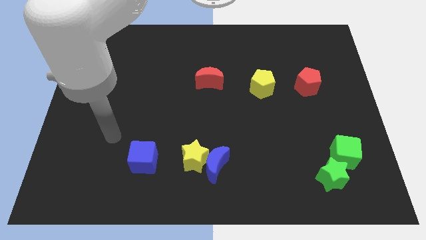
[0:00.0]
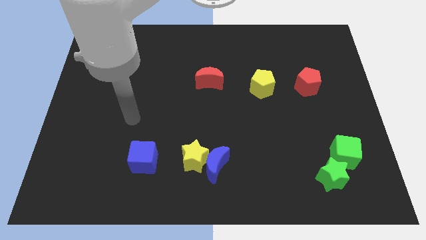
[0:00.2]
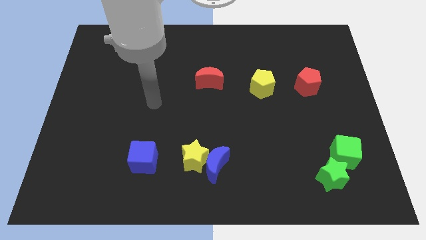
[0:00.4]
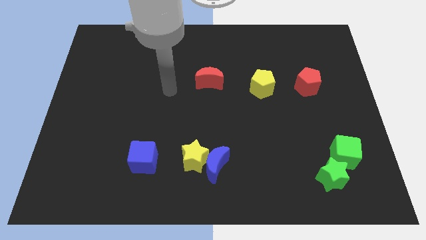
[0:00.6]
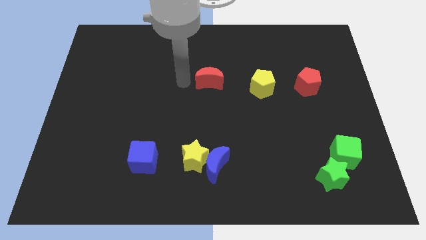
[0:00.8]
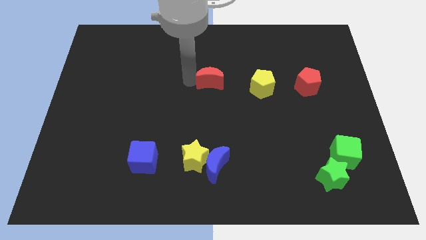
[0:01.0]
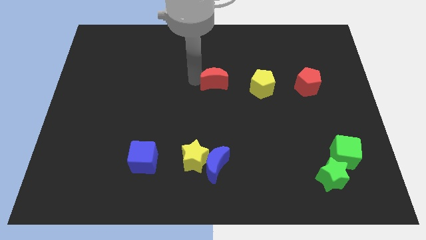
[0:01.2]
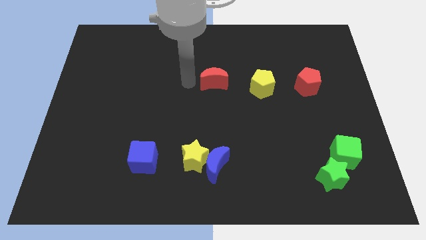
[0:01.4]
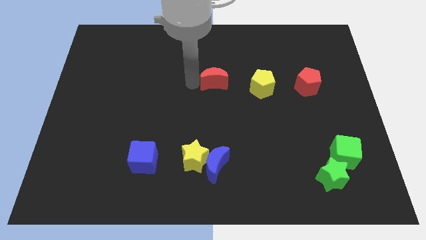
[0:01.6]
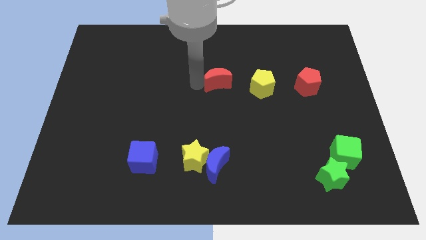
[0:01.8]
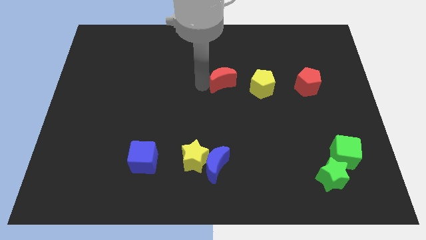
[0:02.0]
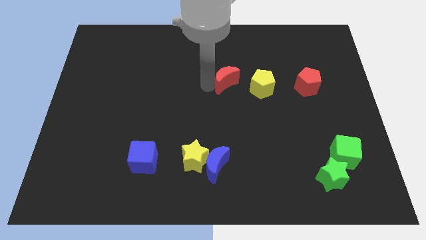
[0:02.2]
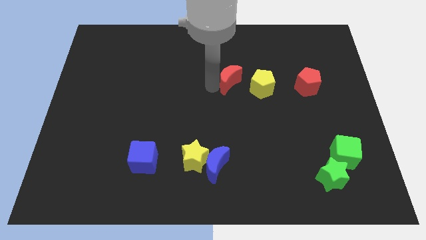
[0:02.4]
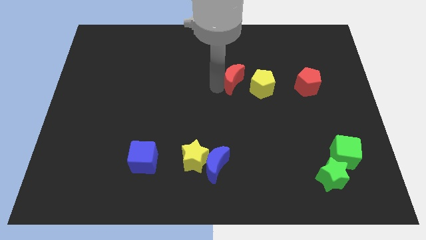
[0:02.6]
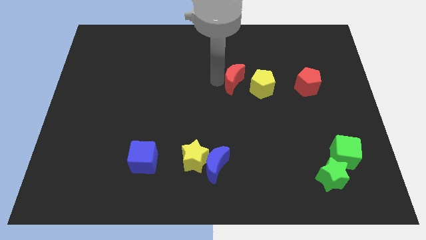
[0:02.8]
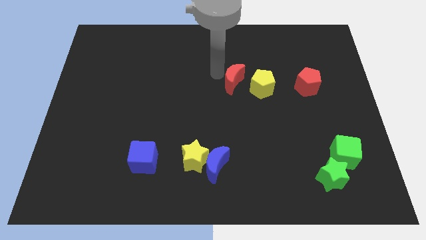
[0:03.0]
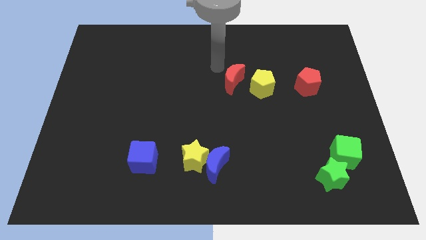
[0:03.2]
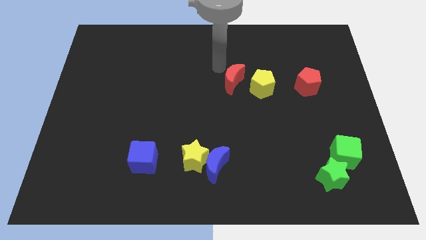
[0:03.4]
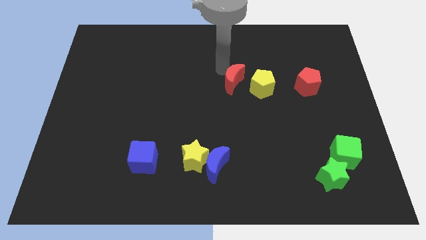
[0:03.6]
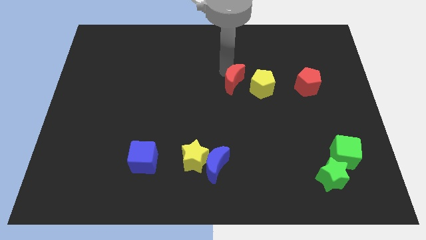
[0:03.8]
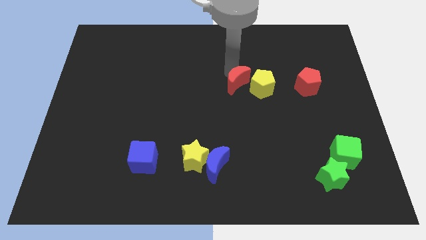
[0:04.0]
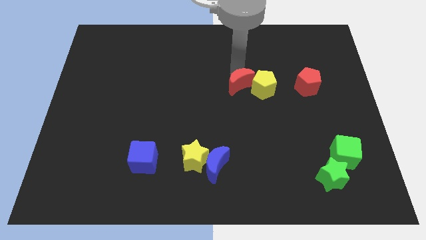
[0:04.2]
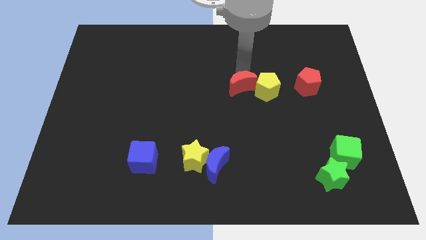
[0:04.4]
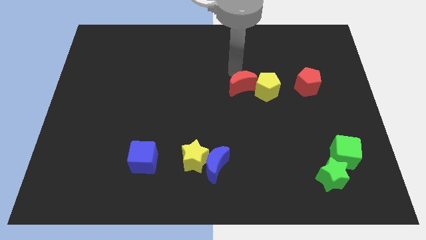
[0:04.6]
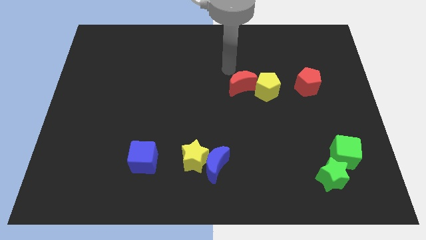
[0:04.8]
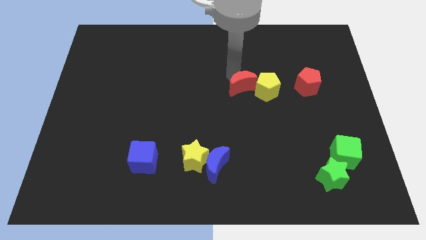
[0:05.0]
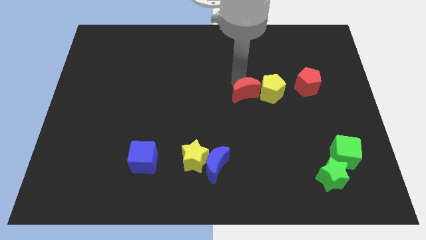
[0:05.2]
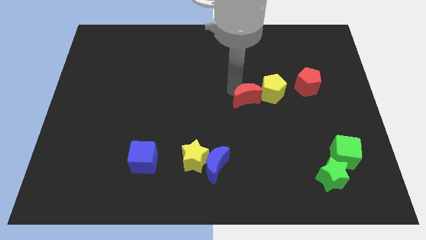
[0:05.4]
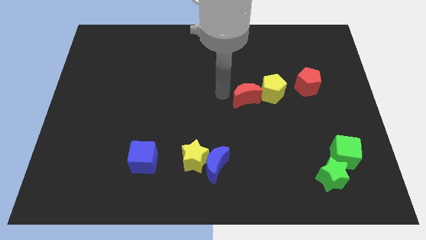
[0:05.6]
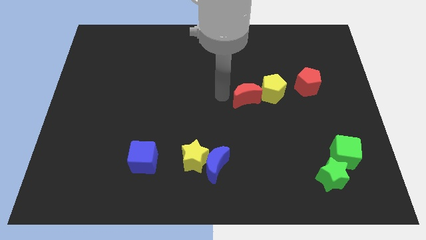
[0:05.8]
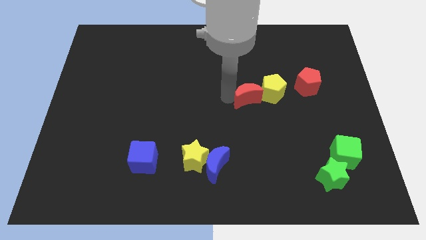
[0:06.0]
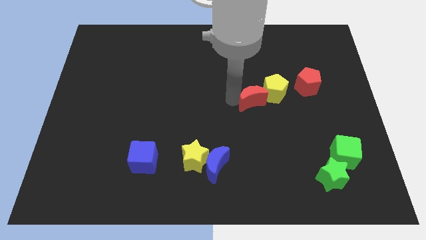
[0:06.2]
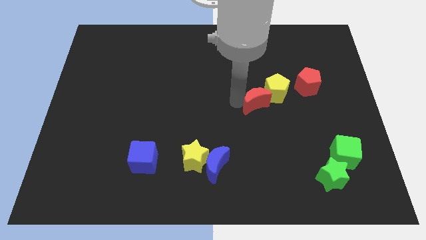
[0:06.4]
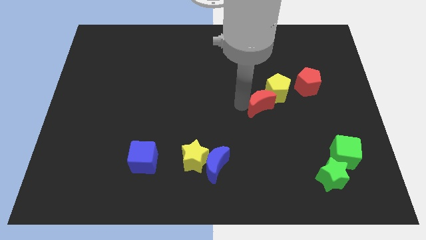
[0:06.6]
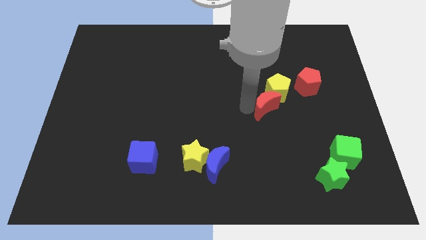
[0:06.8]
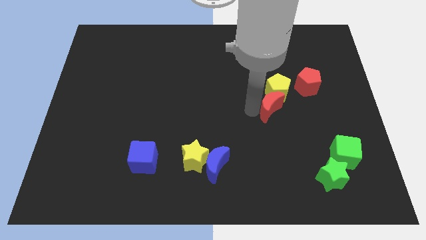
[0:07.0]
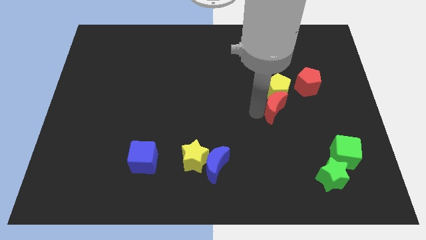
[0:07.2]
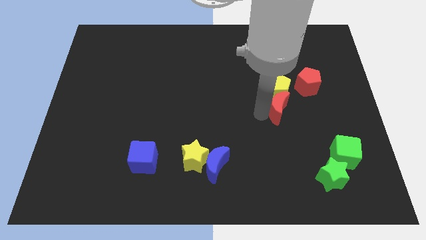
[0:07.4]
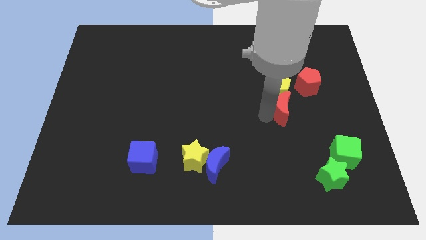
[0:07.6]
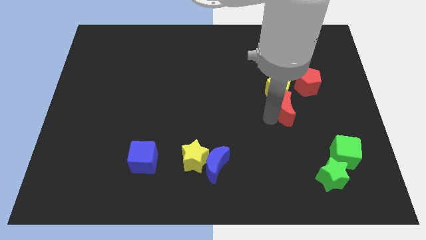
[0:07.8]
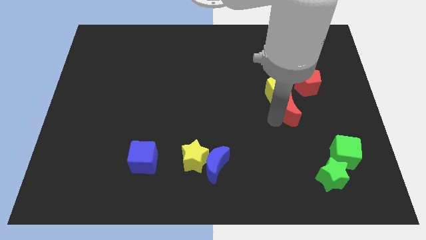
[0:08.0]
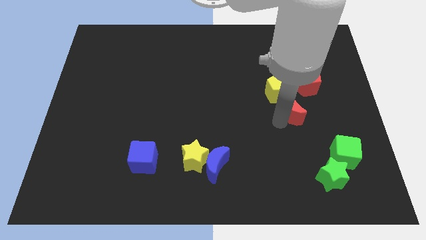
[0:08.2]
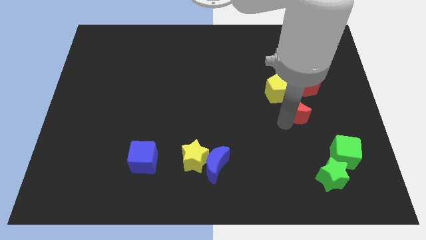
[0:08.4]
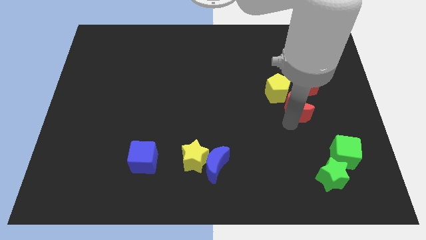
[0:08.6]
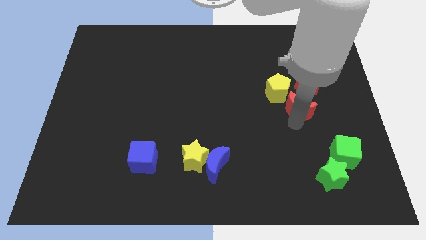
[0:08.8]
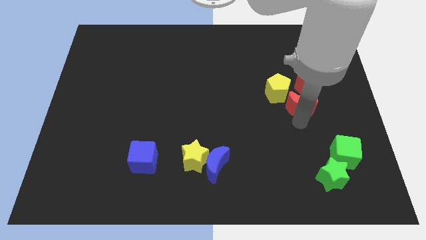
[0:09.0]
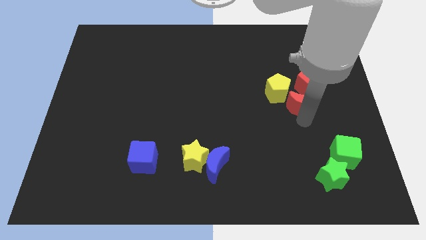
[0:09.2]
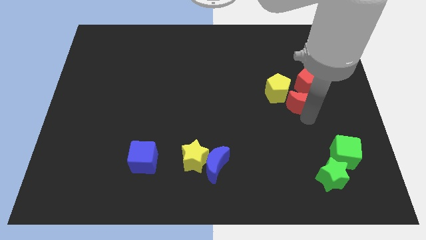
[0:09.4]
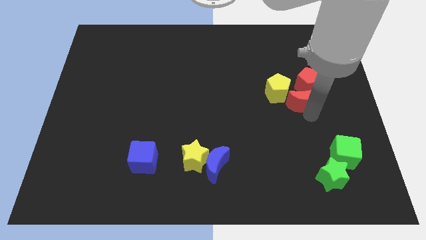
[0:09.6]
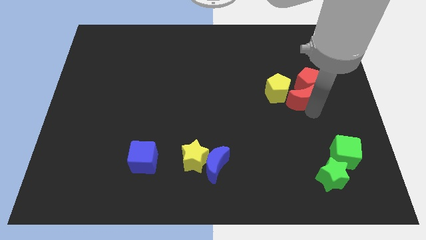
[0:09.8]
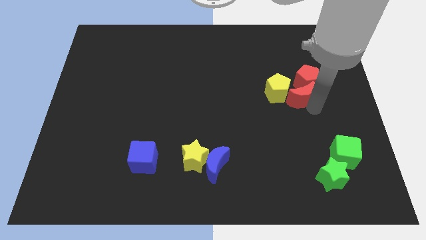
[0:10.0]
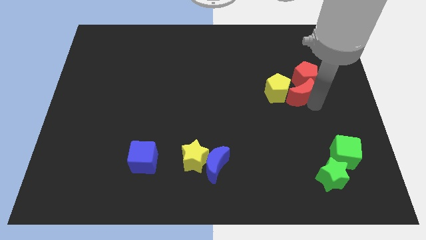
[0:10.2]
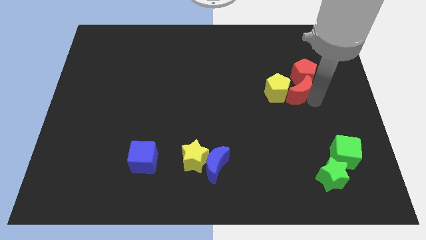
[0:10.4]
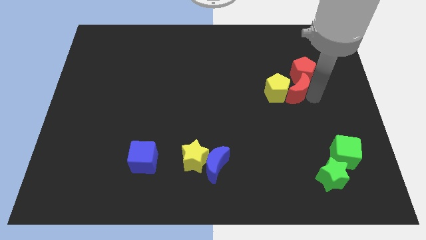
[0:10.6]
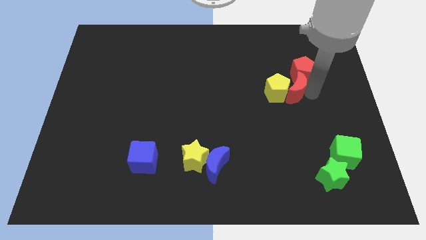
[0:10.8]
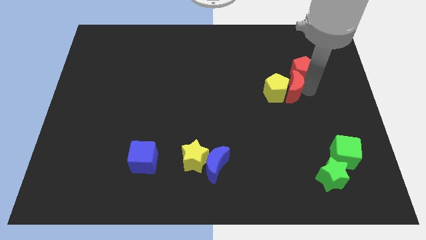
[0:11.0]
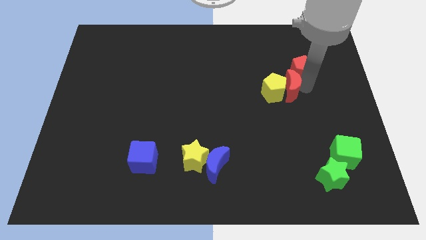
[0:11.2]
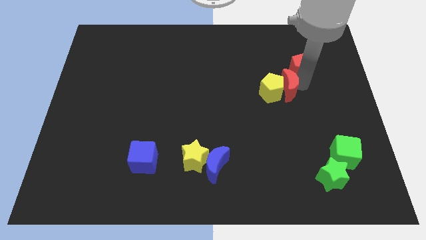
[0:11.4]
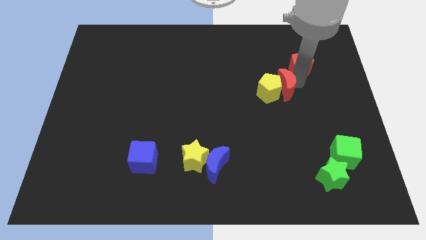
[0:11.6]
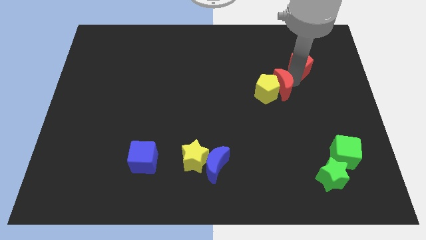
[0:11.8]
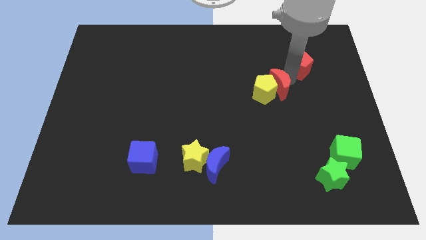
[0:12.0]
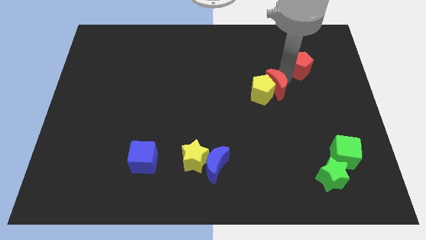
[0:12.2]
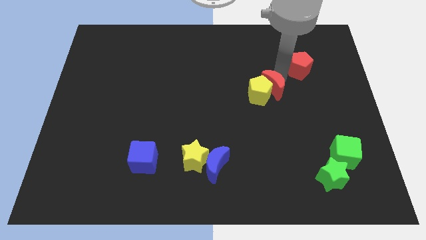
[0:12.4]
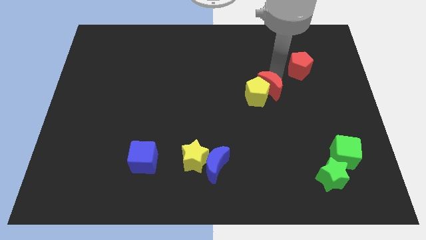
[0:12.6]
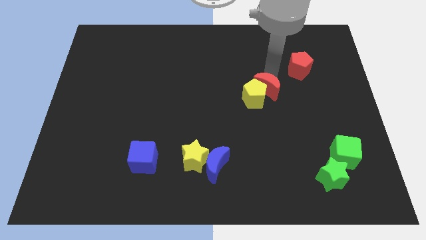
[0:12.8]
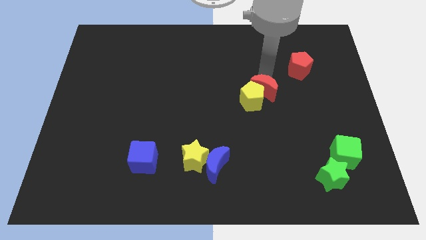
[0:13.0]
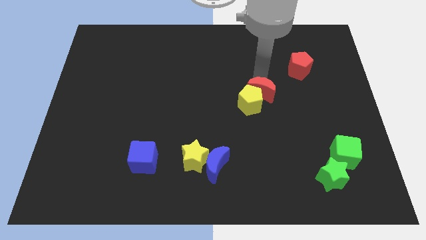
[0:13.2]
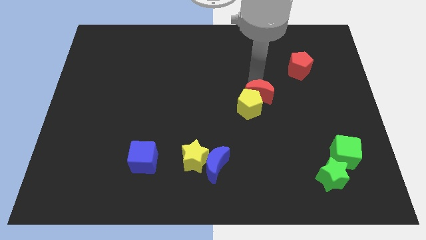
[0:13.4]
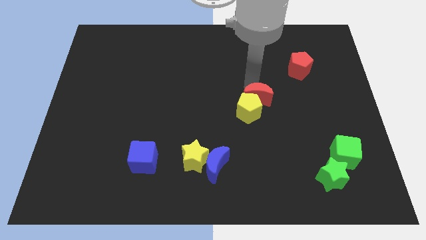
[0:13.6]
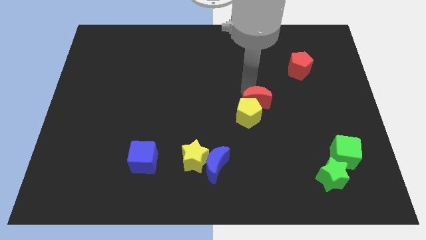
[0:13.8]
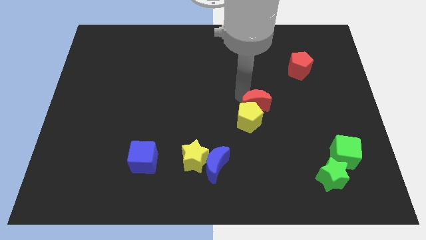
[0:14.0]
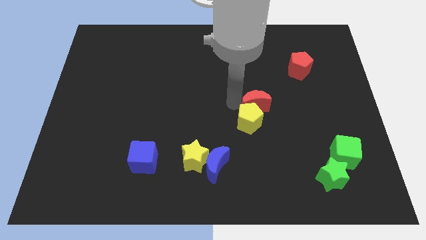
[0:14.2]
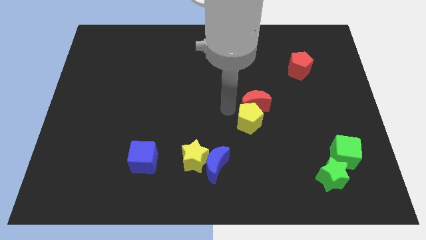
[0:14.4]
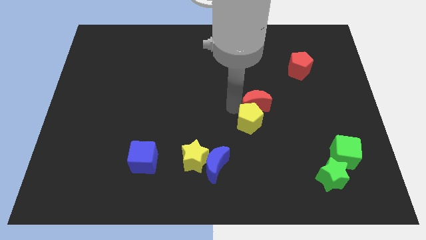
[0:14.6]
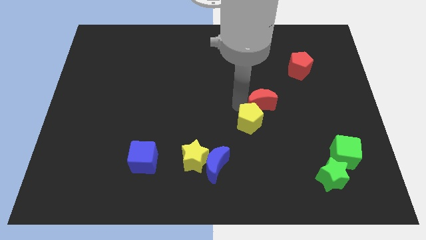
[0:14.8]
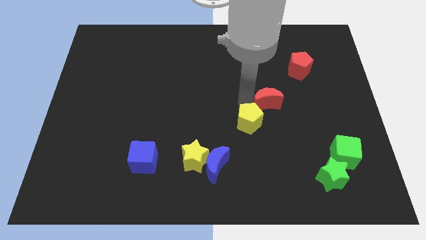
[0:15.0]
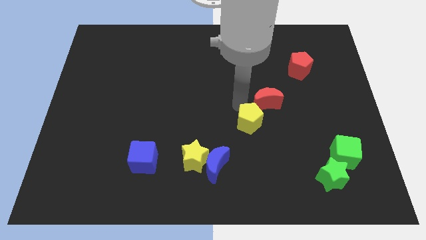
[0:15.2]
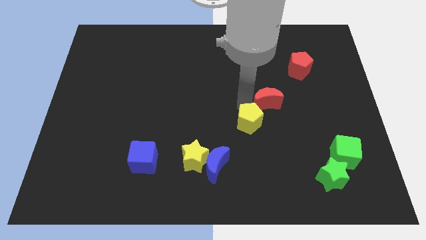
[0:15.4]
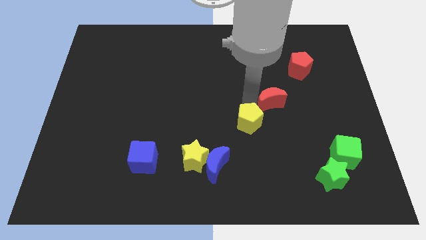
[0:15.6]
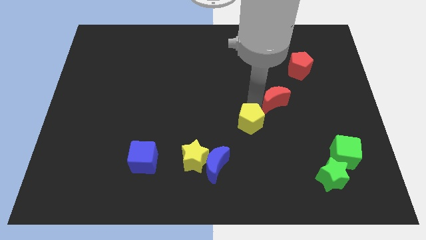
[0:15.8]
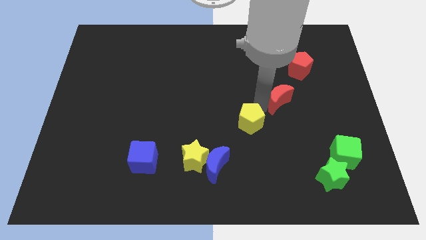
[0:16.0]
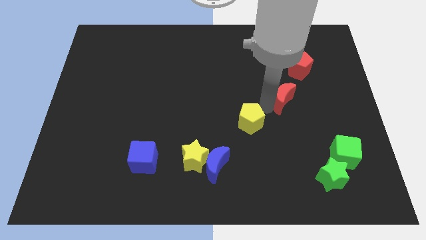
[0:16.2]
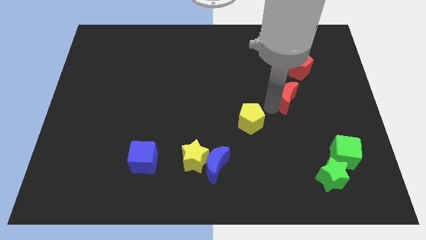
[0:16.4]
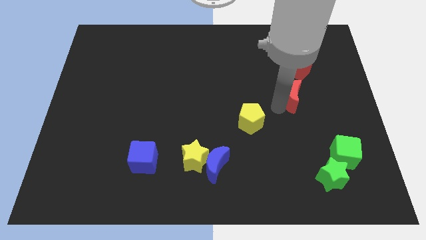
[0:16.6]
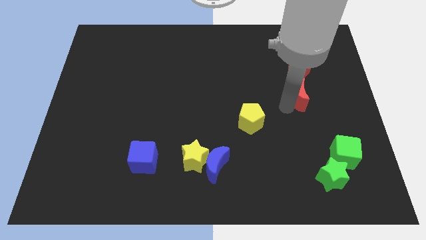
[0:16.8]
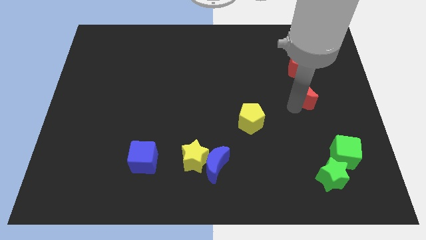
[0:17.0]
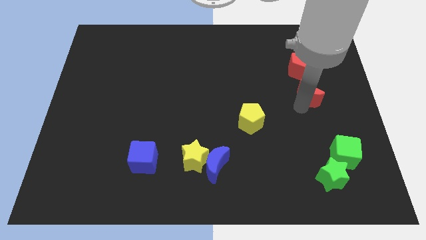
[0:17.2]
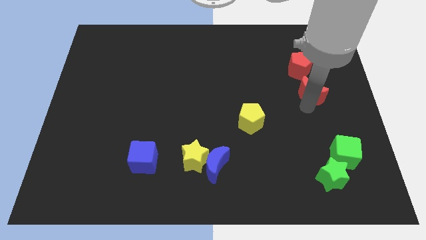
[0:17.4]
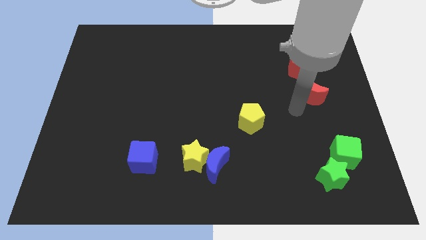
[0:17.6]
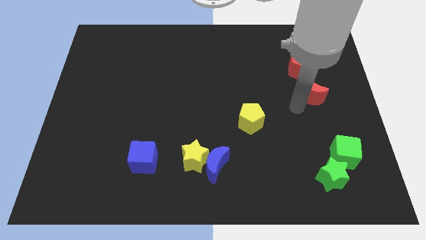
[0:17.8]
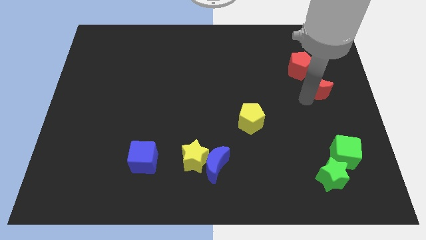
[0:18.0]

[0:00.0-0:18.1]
push the red moon to the bottom right of the red pentagon
